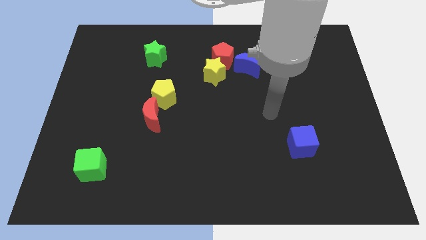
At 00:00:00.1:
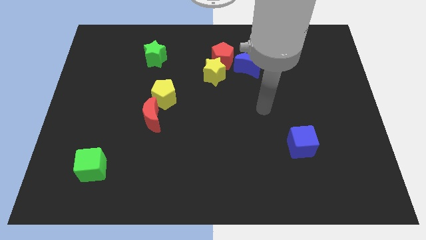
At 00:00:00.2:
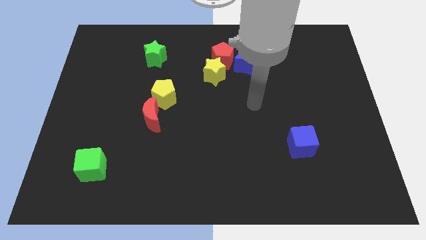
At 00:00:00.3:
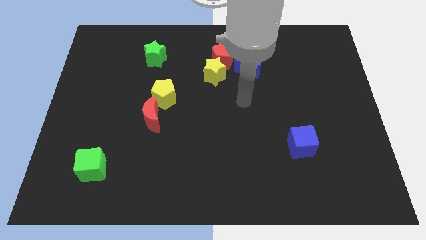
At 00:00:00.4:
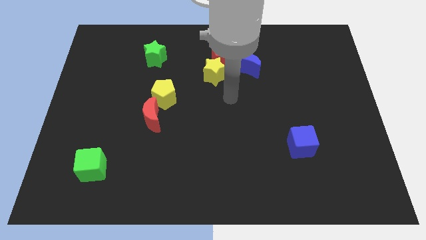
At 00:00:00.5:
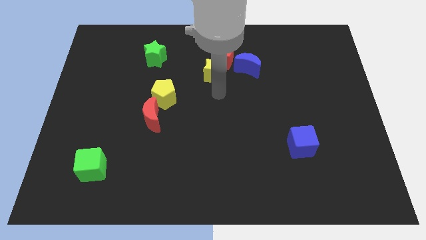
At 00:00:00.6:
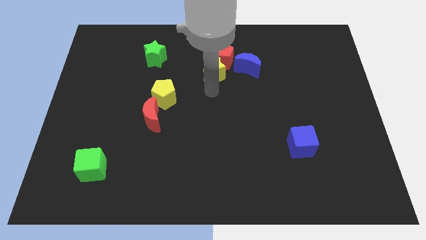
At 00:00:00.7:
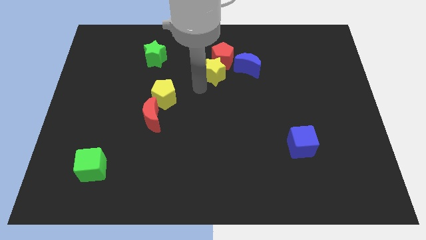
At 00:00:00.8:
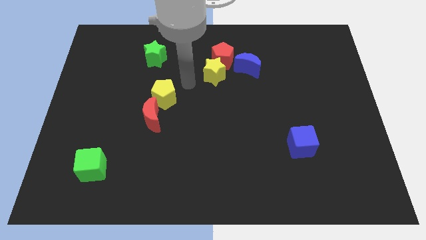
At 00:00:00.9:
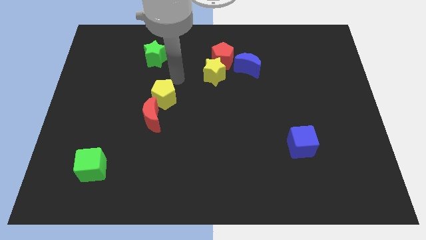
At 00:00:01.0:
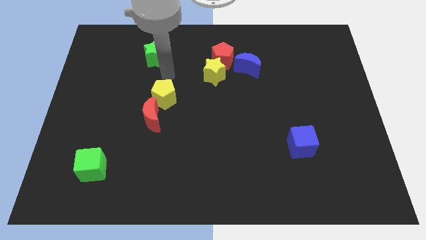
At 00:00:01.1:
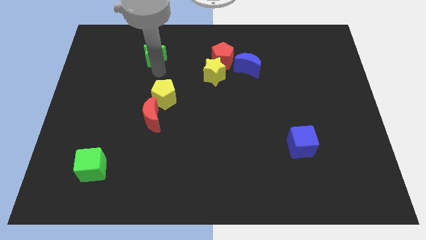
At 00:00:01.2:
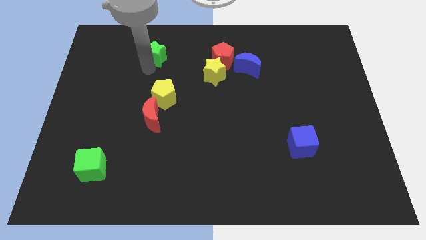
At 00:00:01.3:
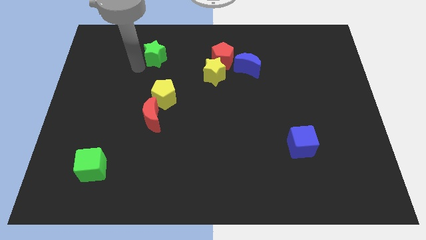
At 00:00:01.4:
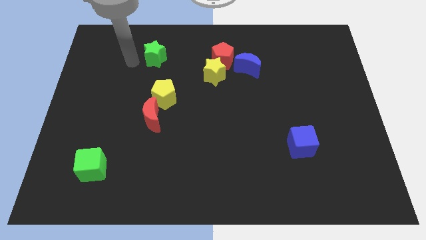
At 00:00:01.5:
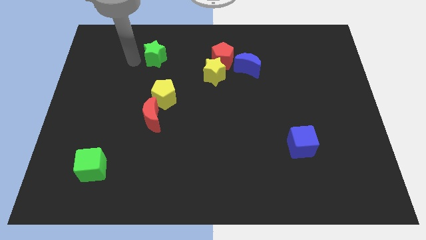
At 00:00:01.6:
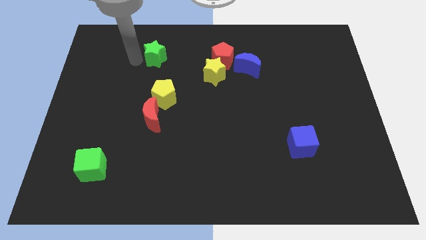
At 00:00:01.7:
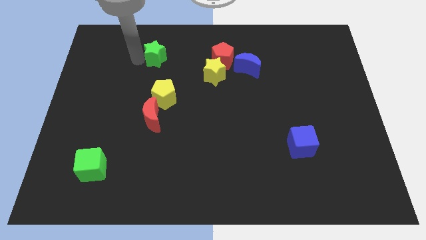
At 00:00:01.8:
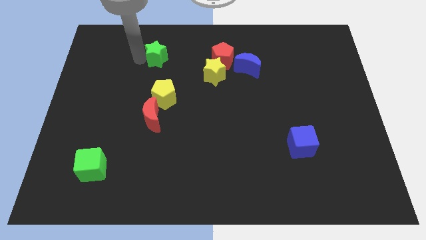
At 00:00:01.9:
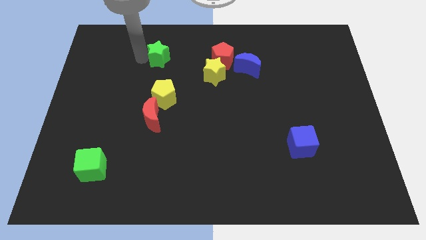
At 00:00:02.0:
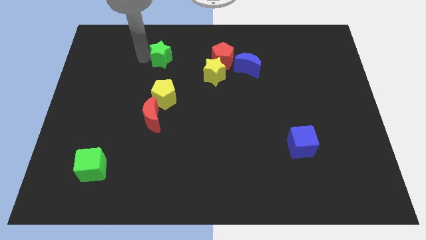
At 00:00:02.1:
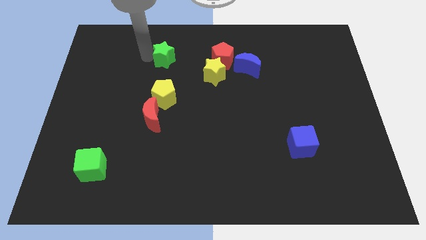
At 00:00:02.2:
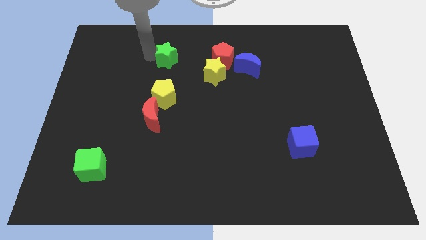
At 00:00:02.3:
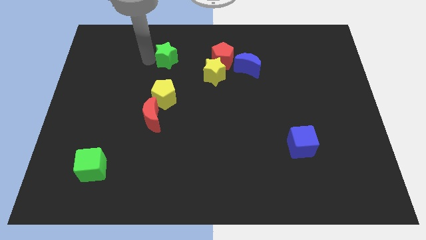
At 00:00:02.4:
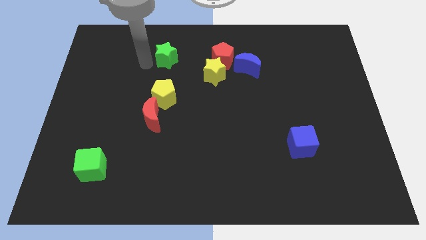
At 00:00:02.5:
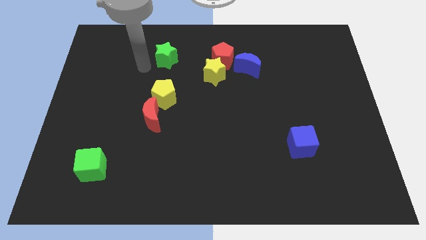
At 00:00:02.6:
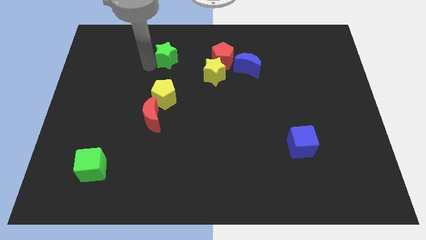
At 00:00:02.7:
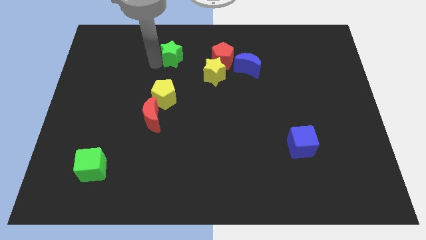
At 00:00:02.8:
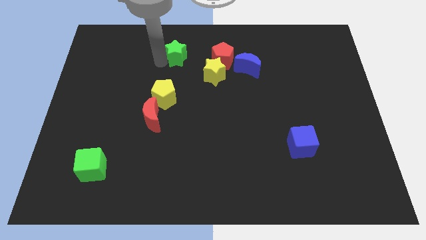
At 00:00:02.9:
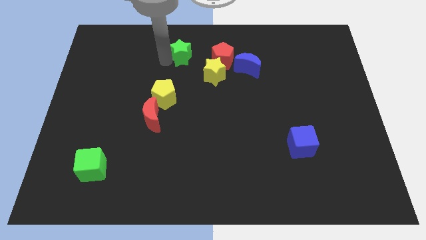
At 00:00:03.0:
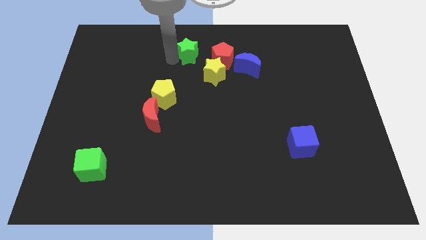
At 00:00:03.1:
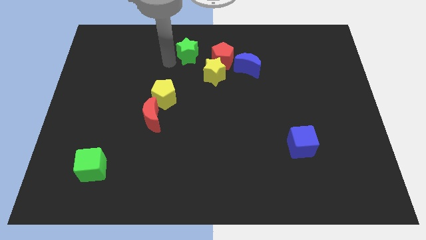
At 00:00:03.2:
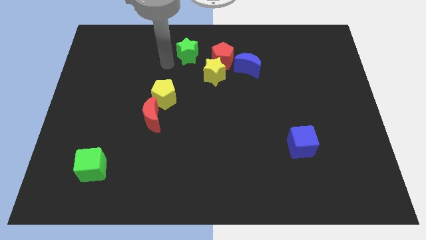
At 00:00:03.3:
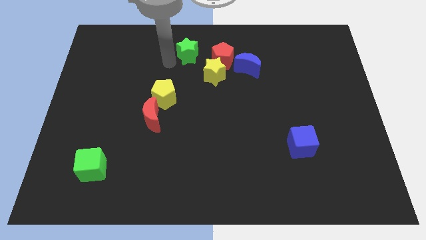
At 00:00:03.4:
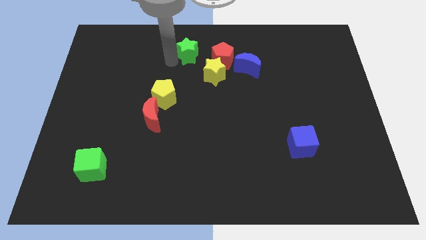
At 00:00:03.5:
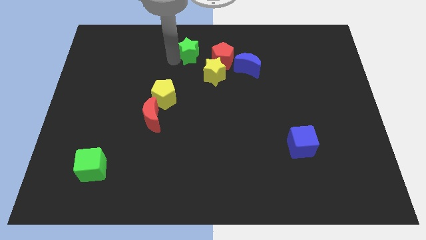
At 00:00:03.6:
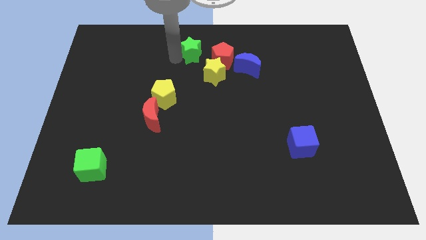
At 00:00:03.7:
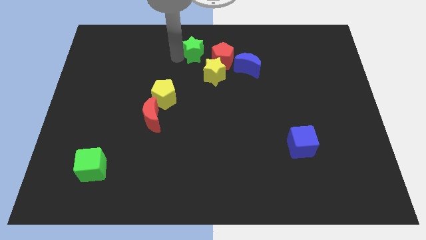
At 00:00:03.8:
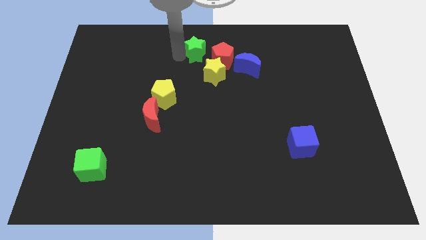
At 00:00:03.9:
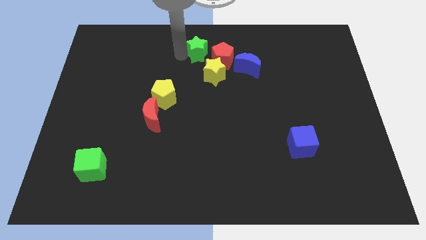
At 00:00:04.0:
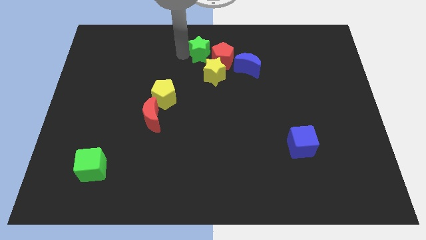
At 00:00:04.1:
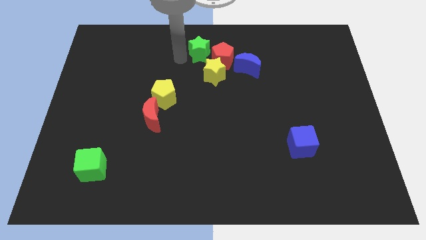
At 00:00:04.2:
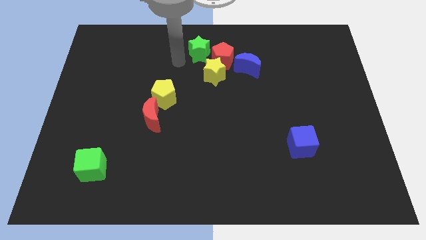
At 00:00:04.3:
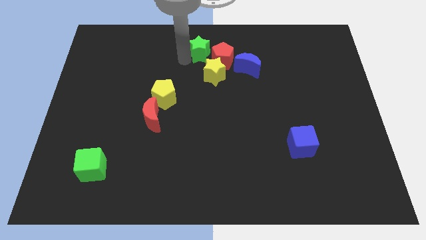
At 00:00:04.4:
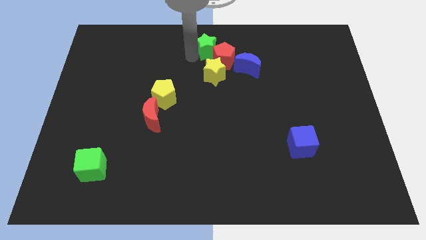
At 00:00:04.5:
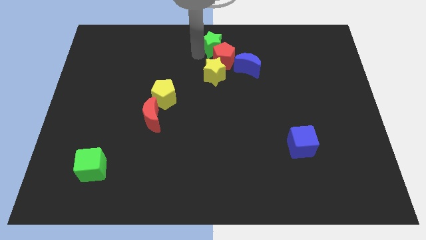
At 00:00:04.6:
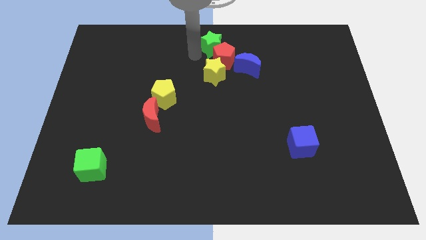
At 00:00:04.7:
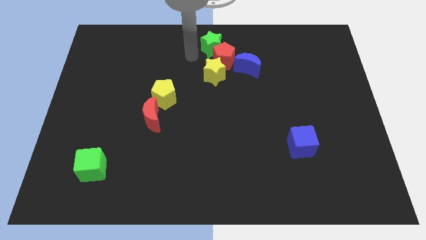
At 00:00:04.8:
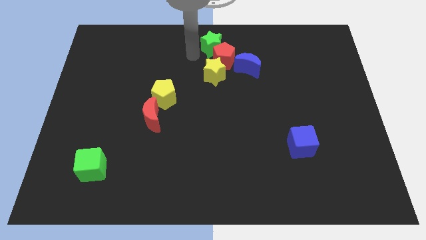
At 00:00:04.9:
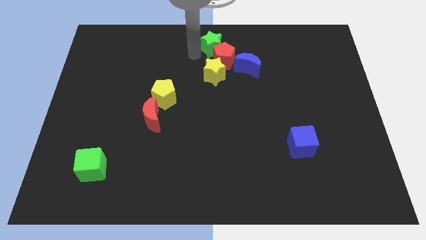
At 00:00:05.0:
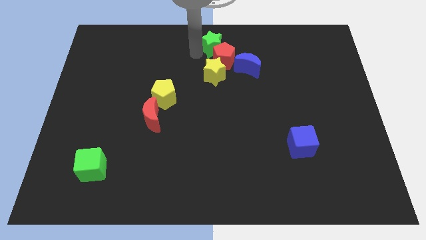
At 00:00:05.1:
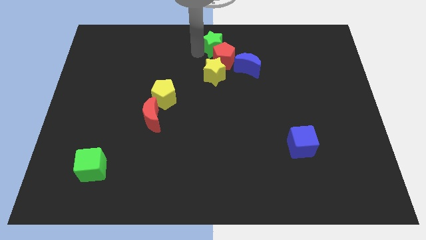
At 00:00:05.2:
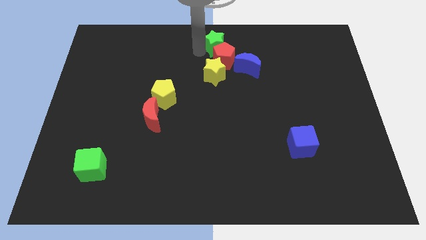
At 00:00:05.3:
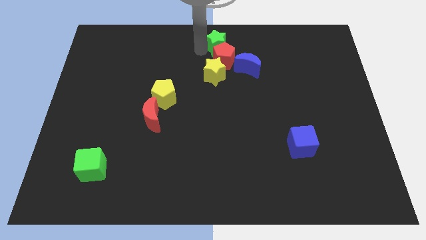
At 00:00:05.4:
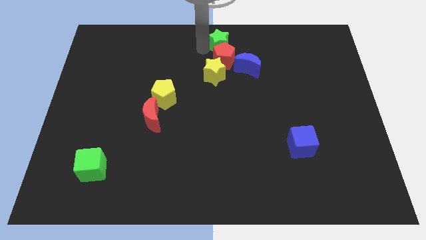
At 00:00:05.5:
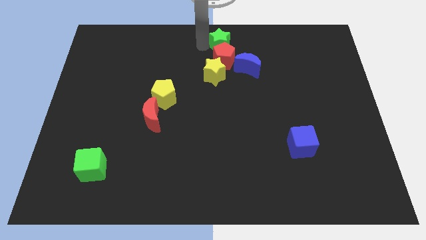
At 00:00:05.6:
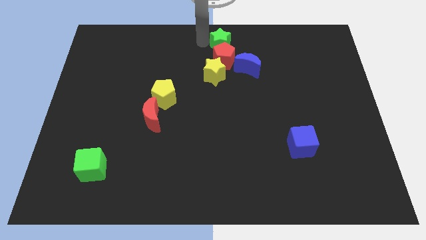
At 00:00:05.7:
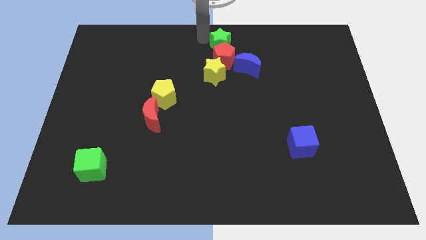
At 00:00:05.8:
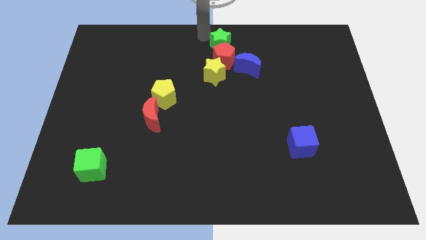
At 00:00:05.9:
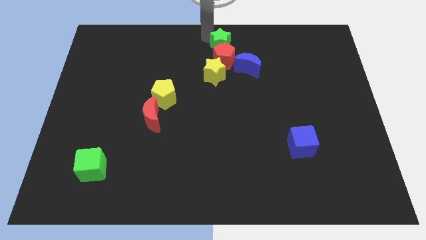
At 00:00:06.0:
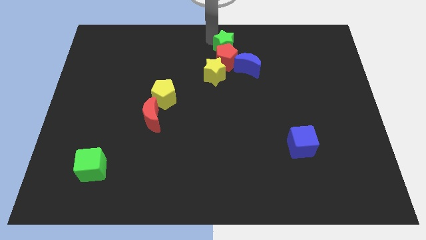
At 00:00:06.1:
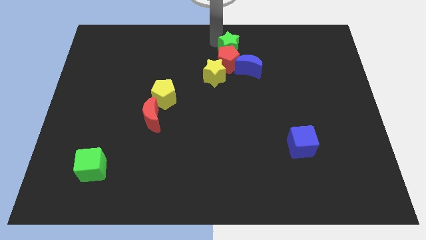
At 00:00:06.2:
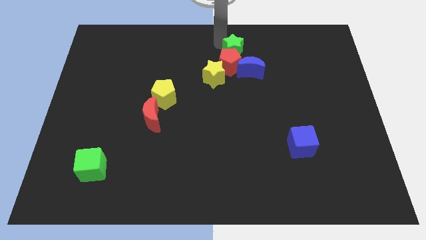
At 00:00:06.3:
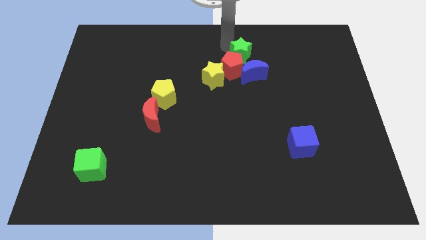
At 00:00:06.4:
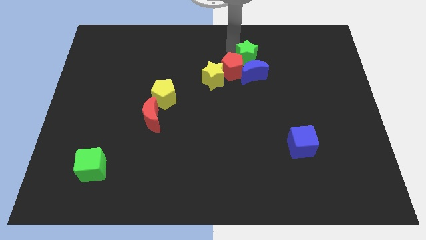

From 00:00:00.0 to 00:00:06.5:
slide the green star to the blue moon

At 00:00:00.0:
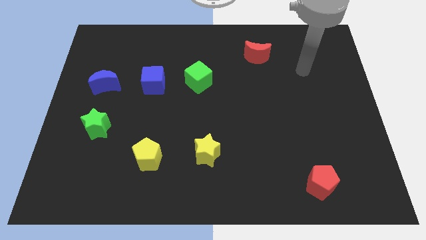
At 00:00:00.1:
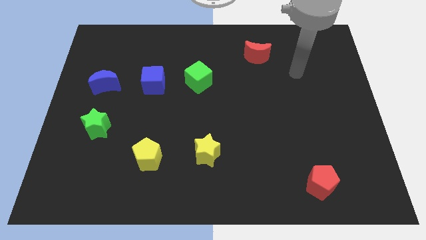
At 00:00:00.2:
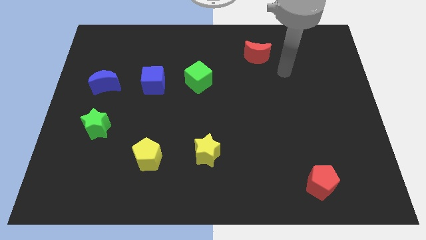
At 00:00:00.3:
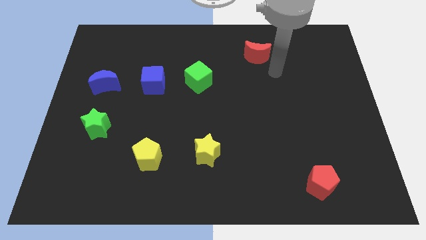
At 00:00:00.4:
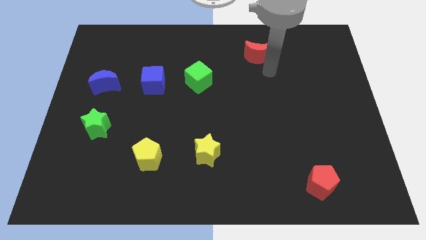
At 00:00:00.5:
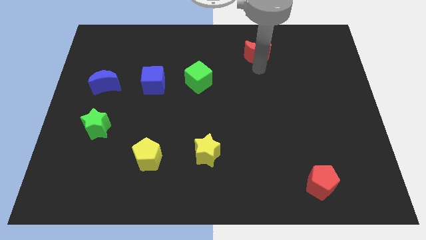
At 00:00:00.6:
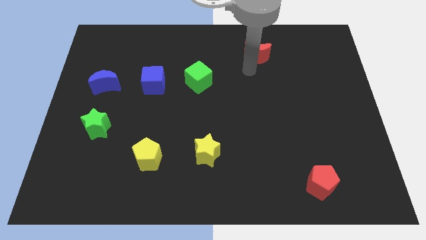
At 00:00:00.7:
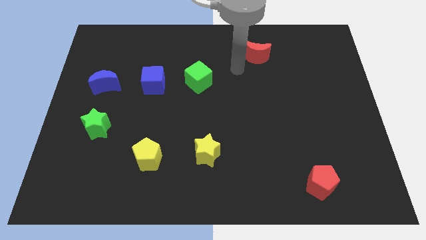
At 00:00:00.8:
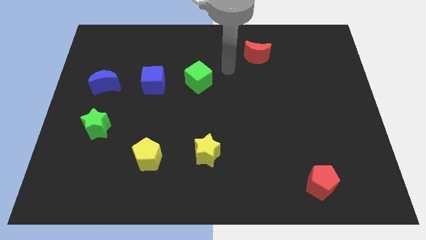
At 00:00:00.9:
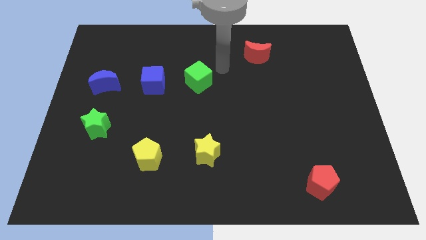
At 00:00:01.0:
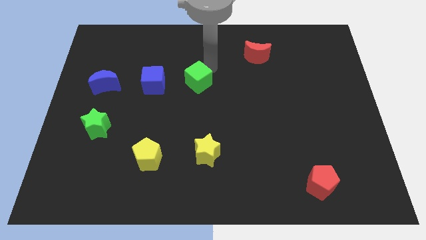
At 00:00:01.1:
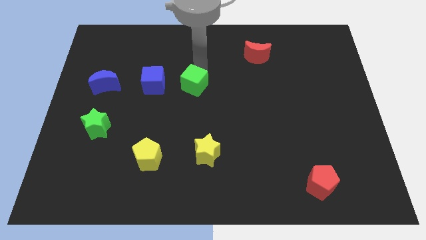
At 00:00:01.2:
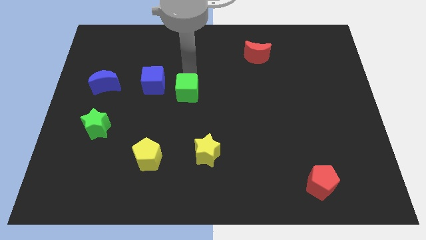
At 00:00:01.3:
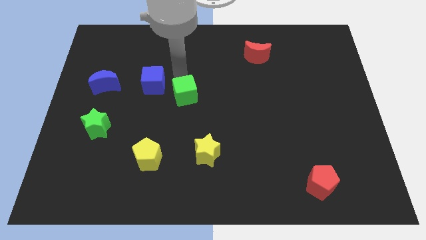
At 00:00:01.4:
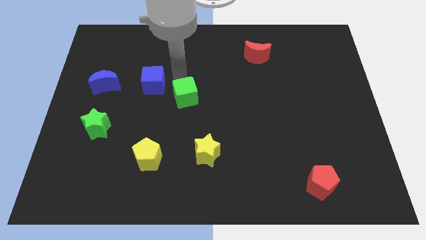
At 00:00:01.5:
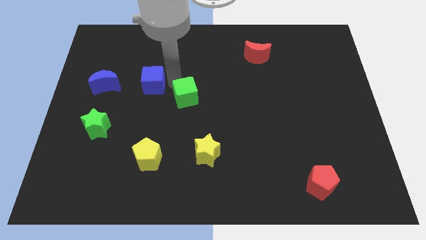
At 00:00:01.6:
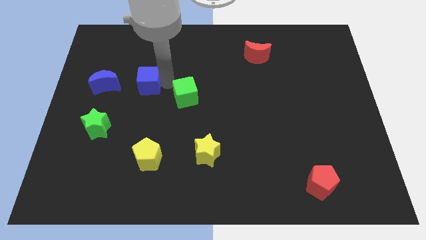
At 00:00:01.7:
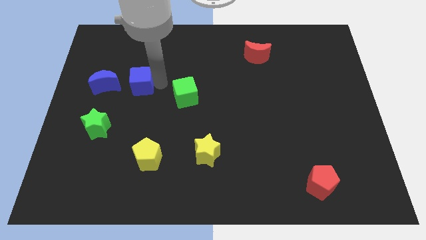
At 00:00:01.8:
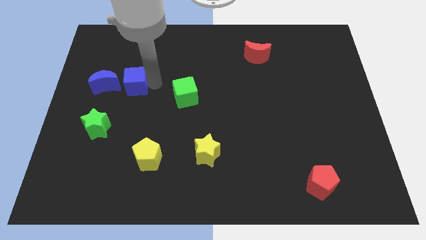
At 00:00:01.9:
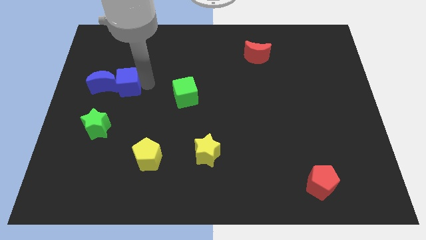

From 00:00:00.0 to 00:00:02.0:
move the blue cube close to the blue moon
